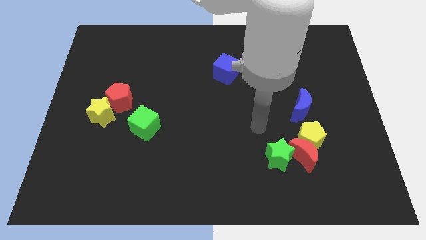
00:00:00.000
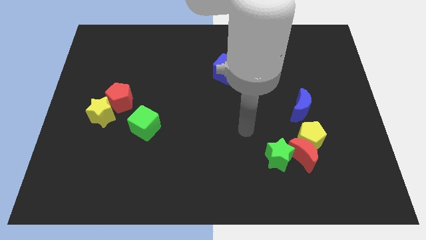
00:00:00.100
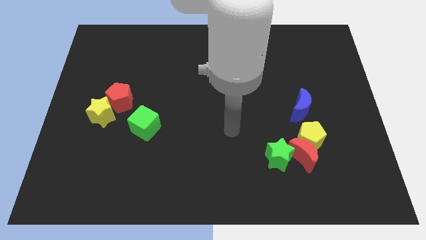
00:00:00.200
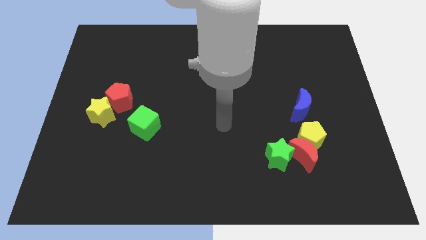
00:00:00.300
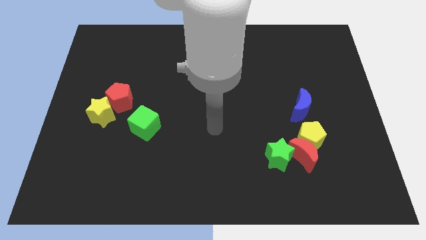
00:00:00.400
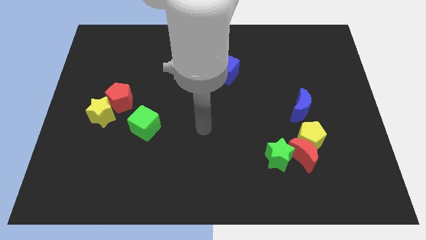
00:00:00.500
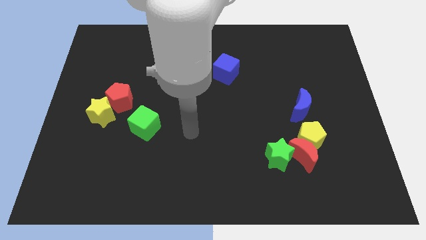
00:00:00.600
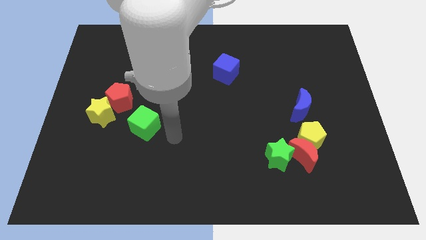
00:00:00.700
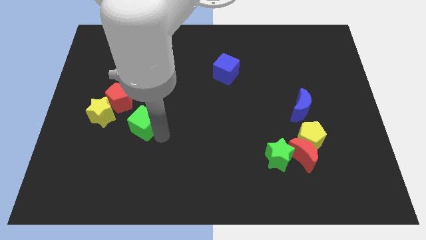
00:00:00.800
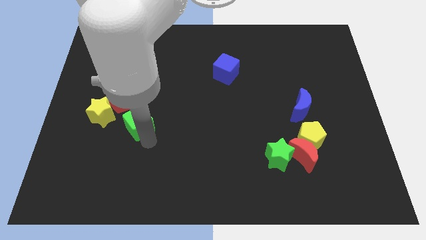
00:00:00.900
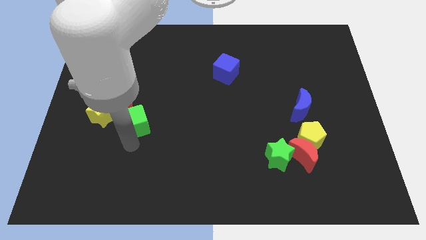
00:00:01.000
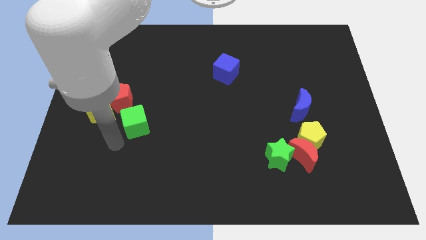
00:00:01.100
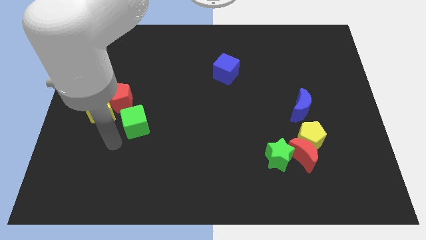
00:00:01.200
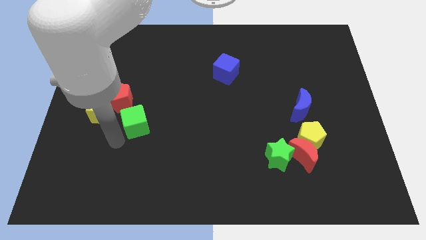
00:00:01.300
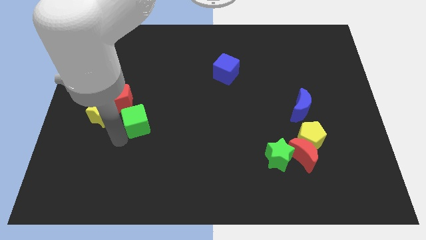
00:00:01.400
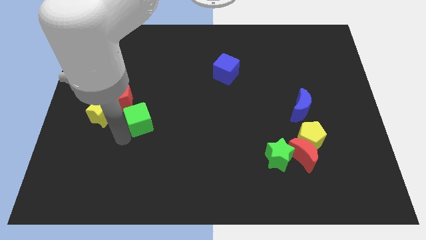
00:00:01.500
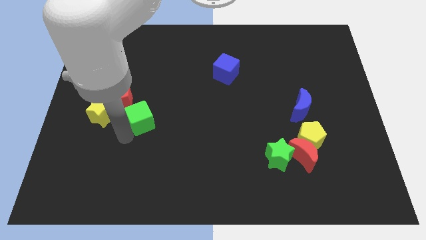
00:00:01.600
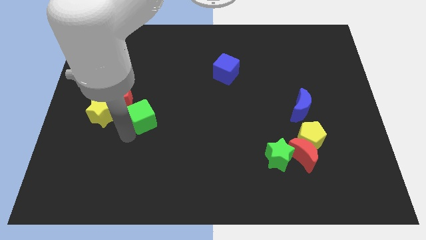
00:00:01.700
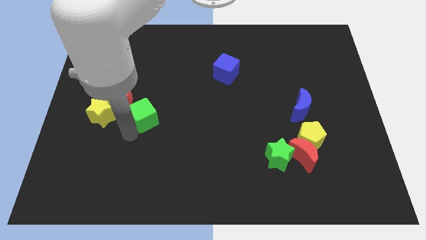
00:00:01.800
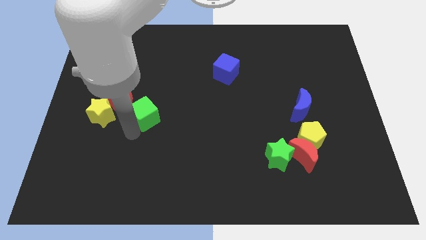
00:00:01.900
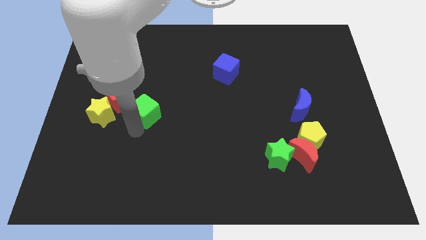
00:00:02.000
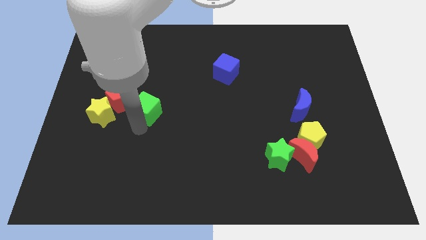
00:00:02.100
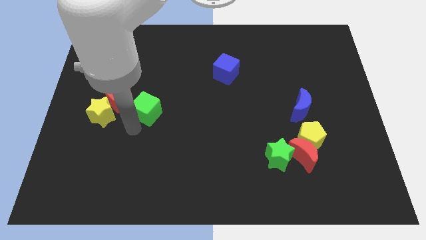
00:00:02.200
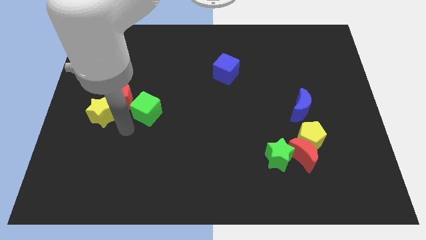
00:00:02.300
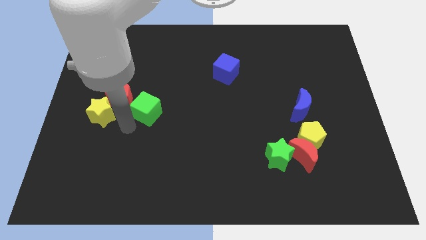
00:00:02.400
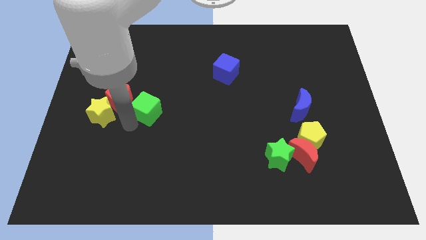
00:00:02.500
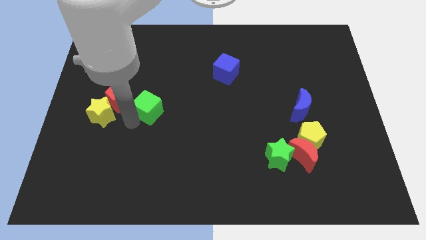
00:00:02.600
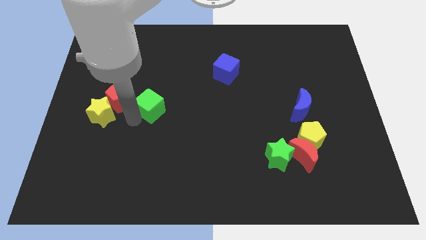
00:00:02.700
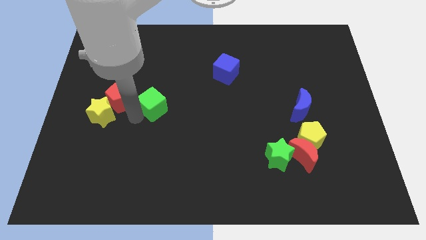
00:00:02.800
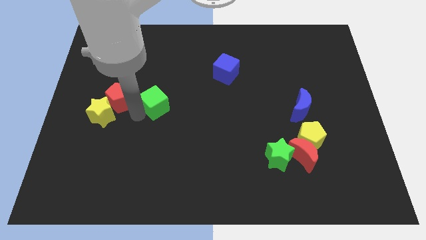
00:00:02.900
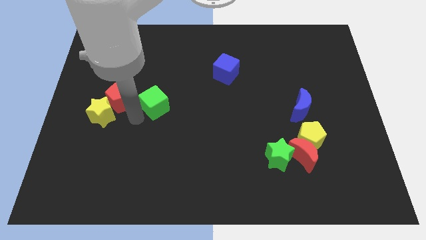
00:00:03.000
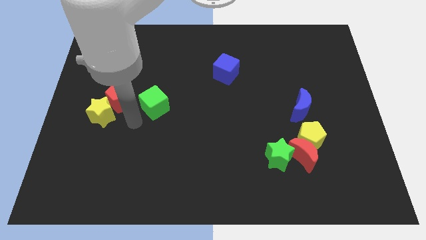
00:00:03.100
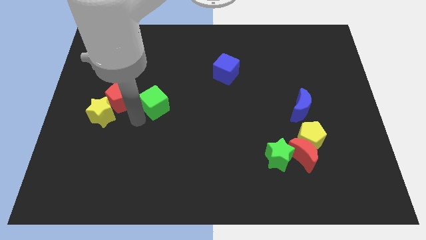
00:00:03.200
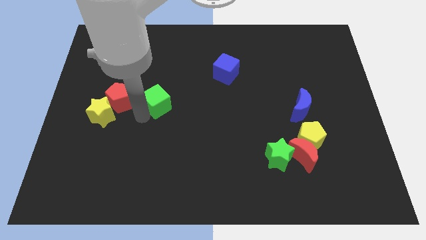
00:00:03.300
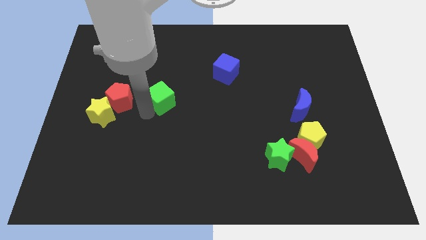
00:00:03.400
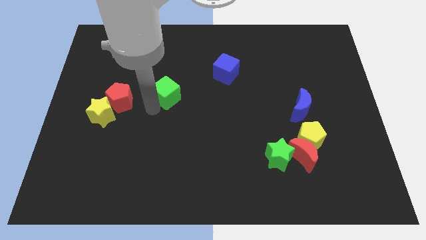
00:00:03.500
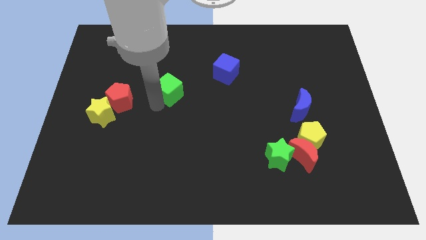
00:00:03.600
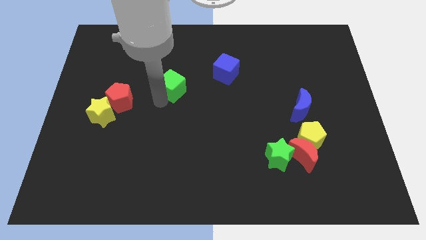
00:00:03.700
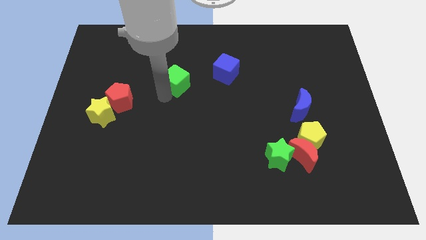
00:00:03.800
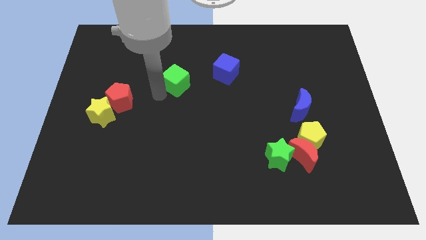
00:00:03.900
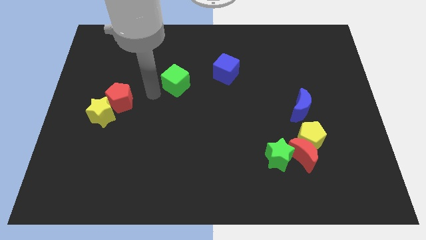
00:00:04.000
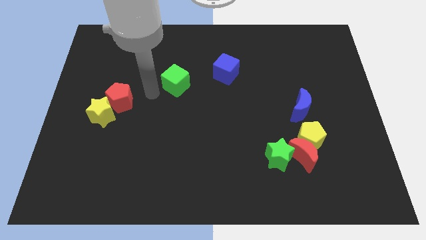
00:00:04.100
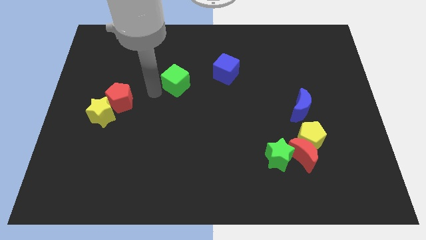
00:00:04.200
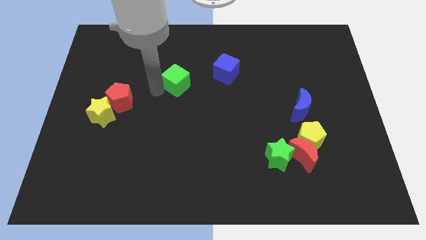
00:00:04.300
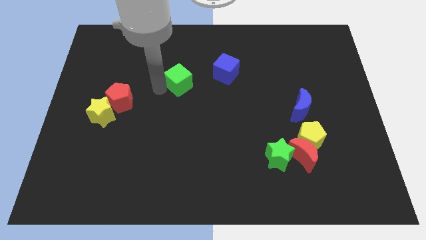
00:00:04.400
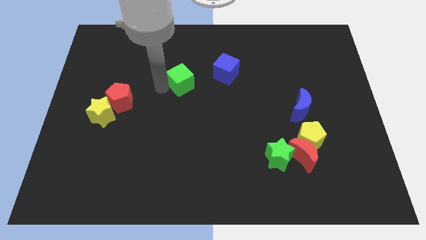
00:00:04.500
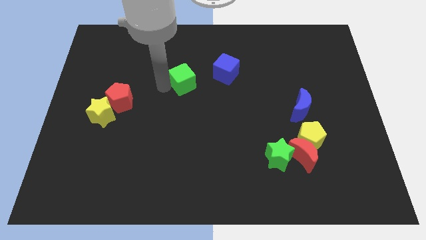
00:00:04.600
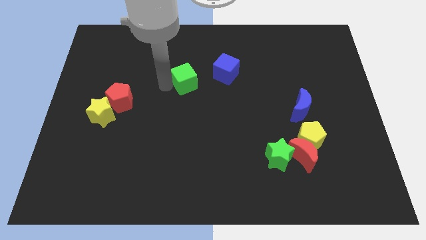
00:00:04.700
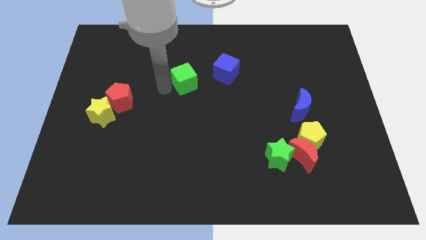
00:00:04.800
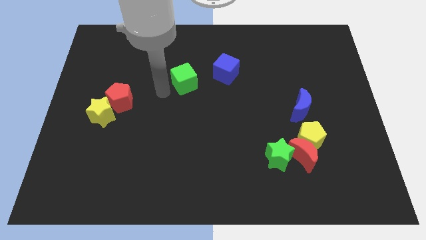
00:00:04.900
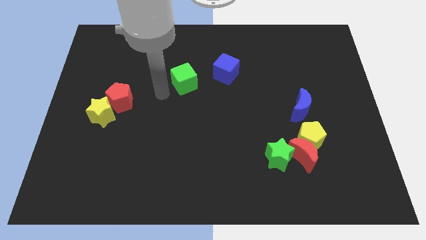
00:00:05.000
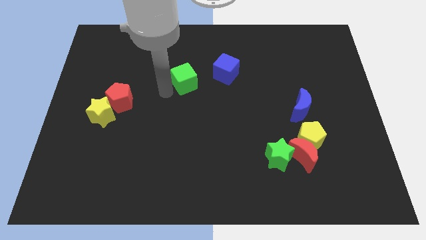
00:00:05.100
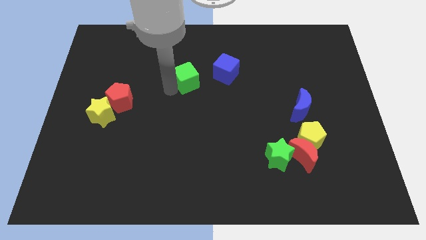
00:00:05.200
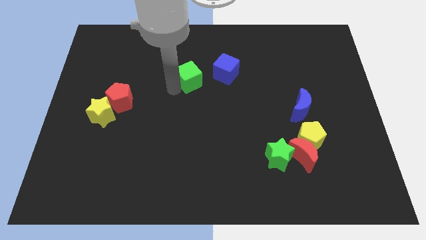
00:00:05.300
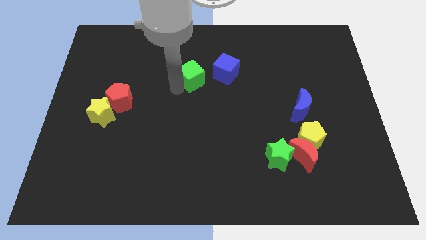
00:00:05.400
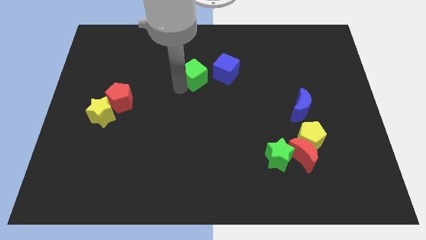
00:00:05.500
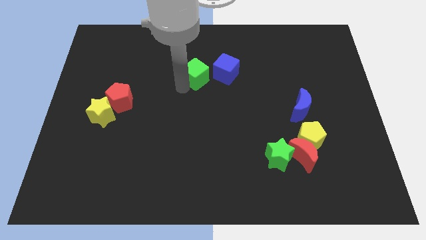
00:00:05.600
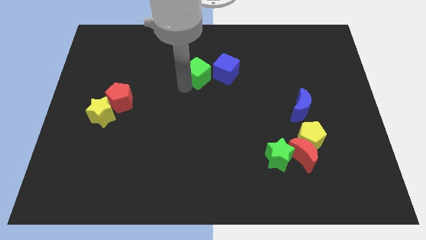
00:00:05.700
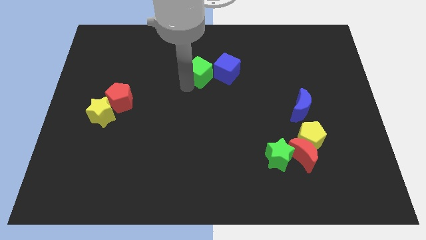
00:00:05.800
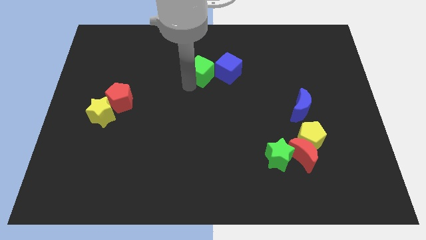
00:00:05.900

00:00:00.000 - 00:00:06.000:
push the green cube upwards and right

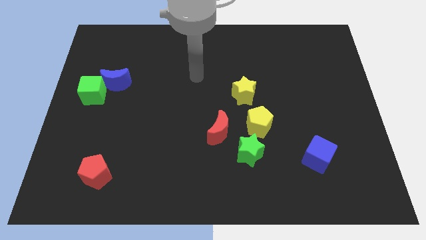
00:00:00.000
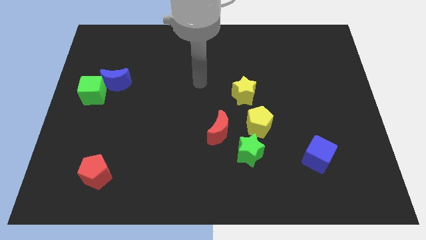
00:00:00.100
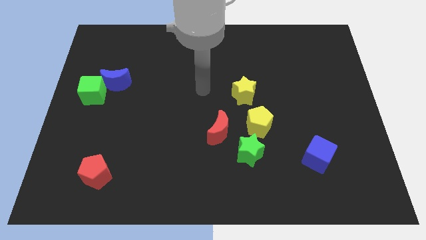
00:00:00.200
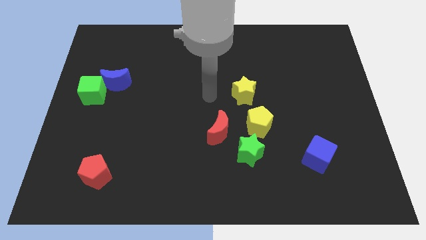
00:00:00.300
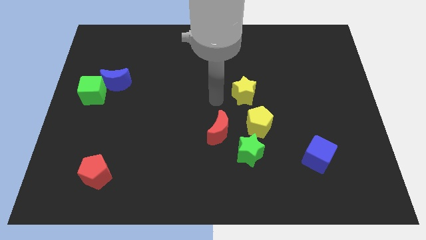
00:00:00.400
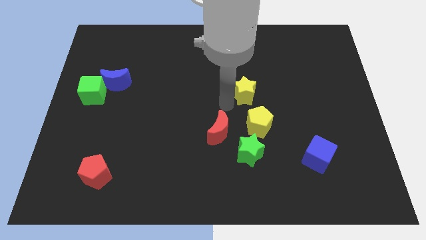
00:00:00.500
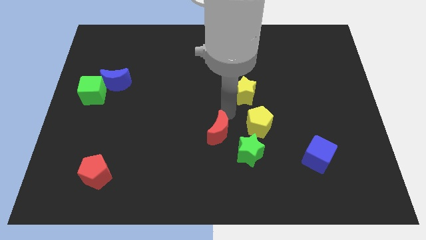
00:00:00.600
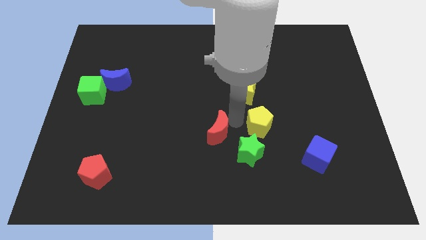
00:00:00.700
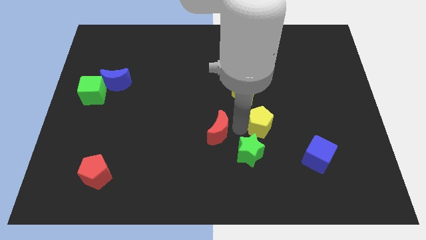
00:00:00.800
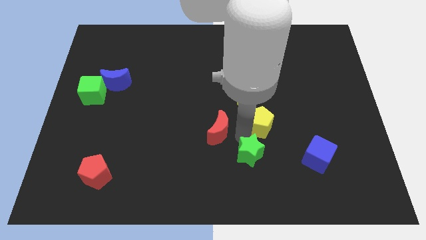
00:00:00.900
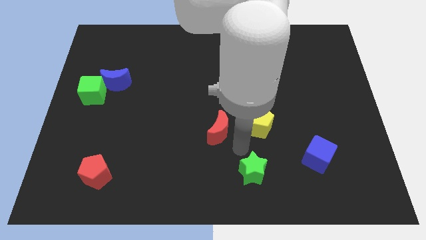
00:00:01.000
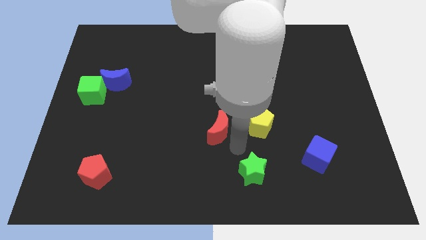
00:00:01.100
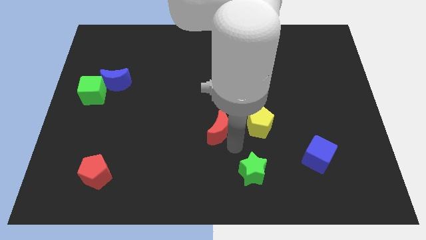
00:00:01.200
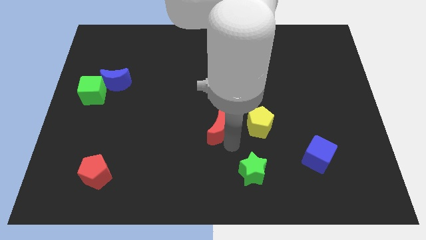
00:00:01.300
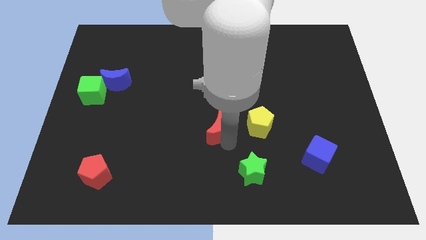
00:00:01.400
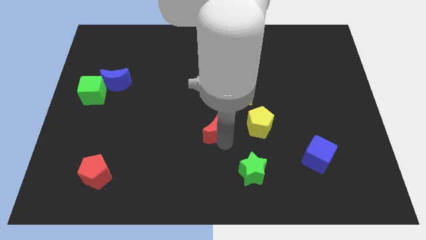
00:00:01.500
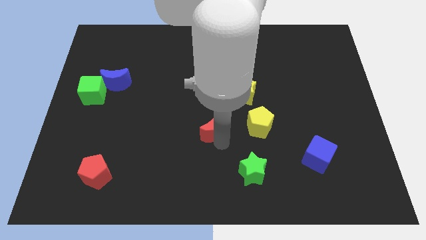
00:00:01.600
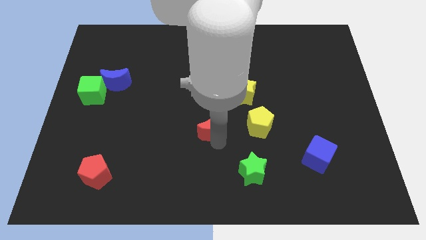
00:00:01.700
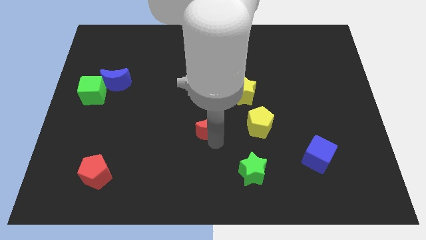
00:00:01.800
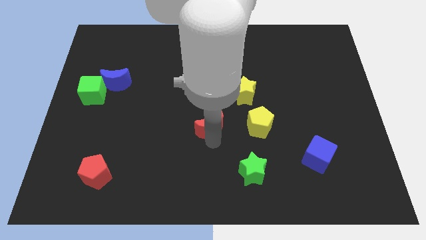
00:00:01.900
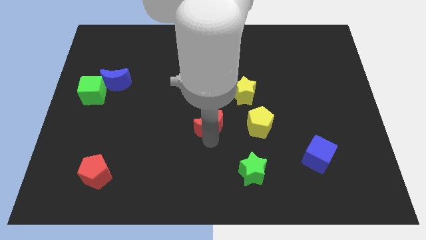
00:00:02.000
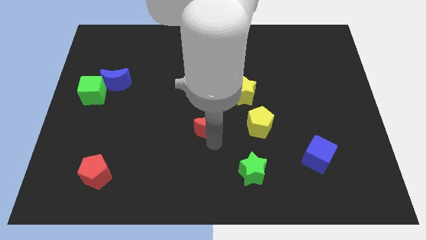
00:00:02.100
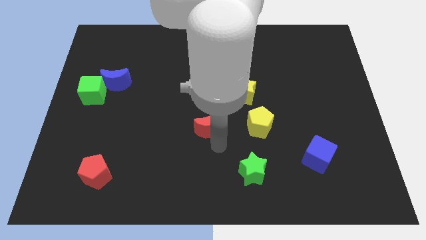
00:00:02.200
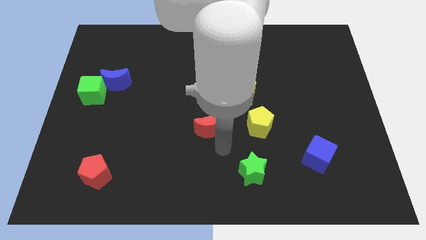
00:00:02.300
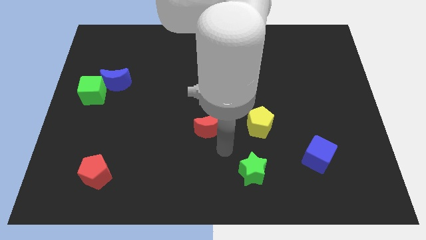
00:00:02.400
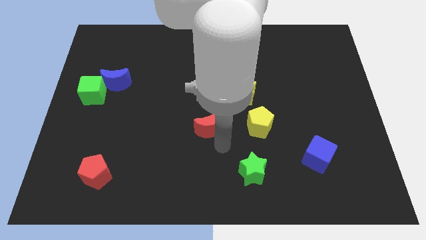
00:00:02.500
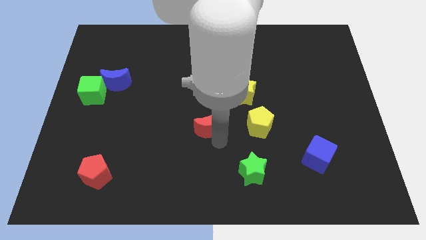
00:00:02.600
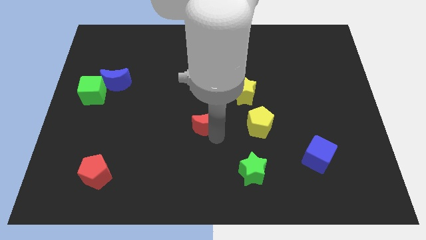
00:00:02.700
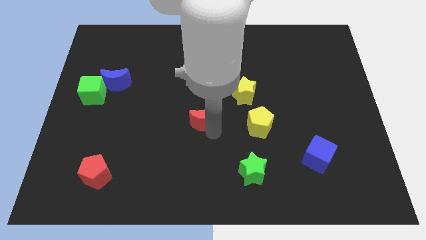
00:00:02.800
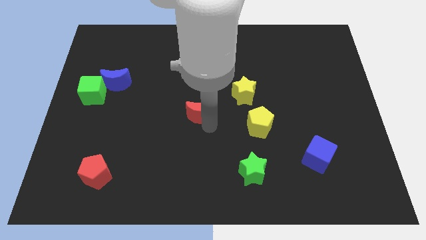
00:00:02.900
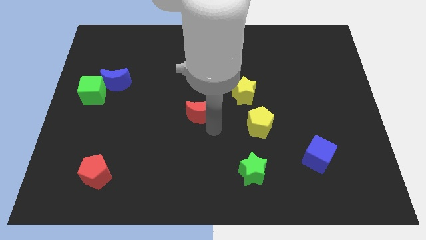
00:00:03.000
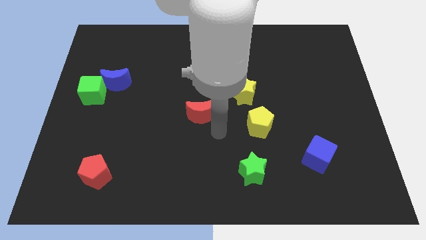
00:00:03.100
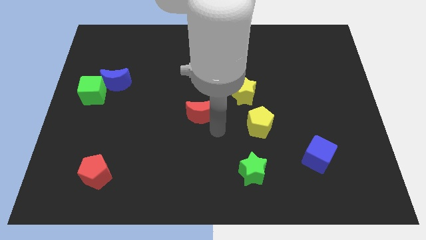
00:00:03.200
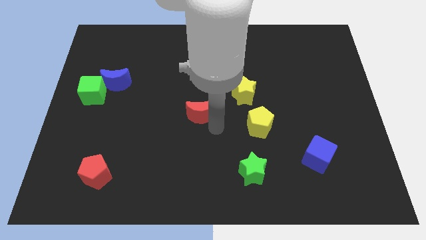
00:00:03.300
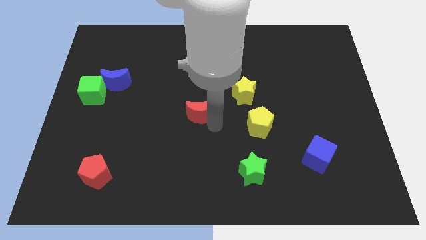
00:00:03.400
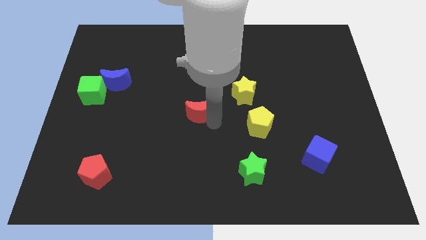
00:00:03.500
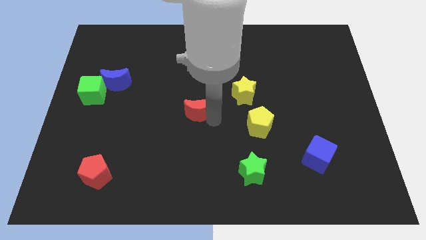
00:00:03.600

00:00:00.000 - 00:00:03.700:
slightly push the red moon upwards and then left
